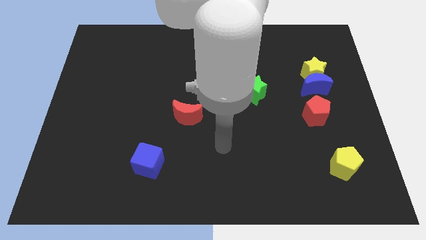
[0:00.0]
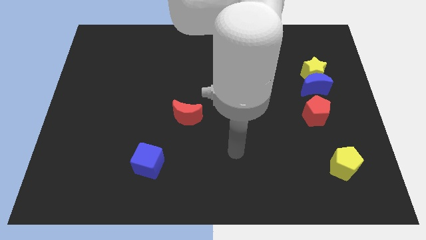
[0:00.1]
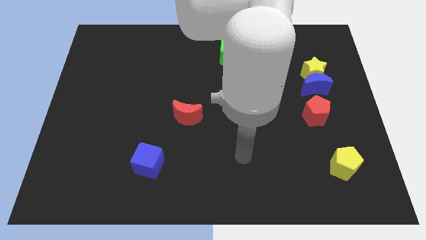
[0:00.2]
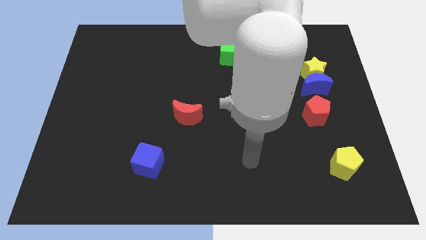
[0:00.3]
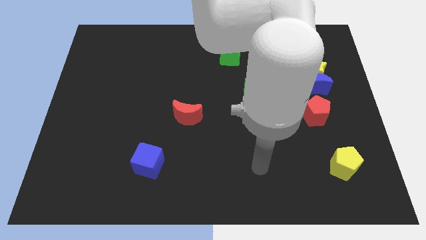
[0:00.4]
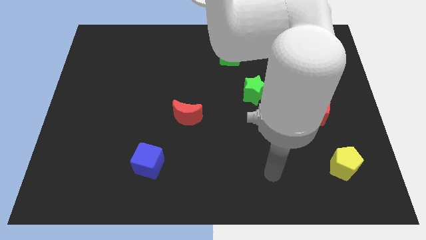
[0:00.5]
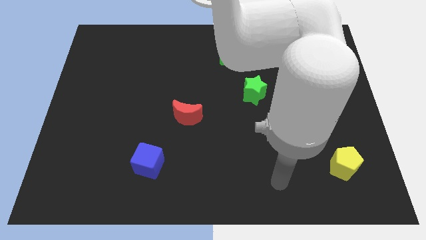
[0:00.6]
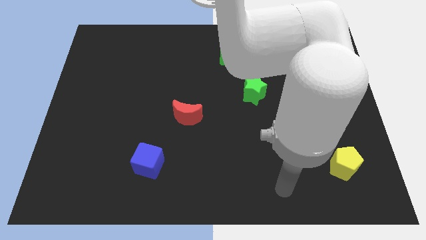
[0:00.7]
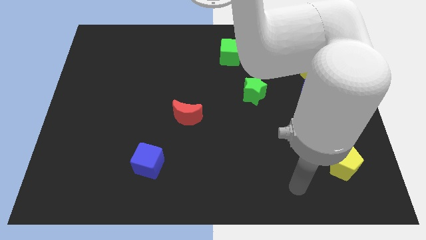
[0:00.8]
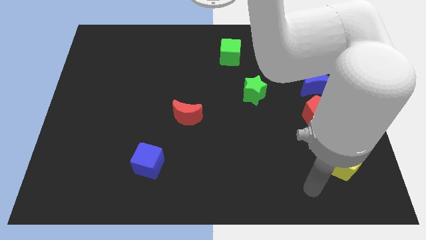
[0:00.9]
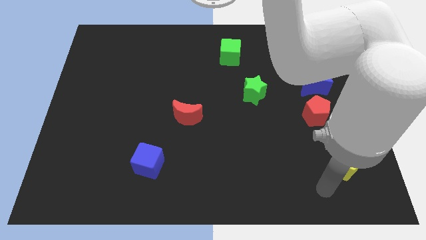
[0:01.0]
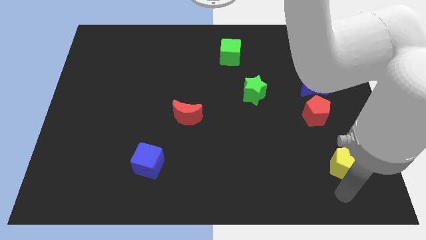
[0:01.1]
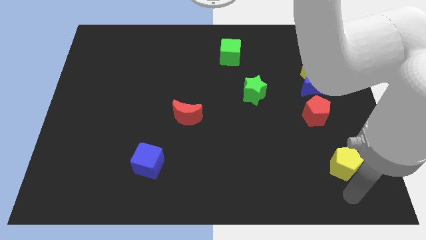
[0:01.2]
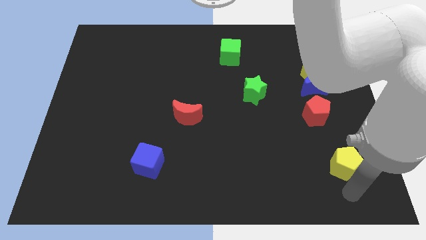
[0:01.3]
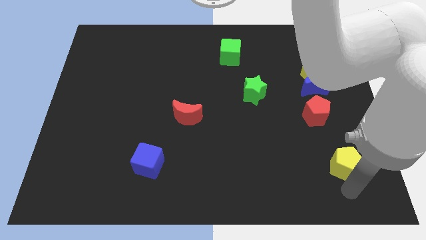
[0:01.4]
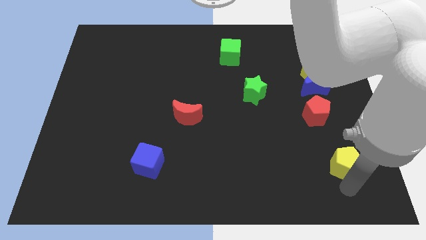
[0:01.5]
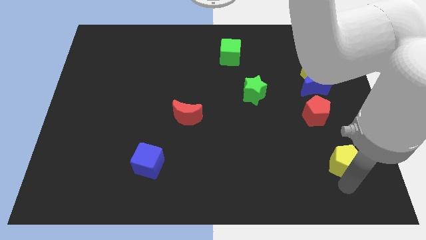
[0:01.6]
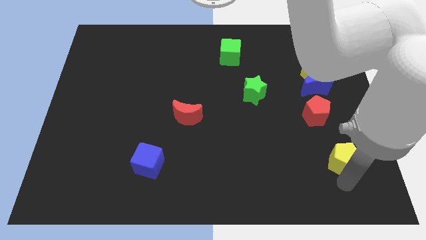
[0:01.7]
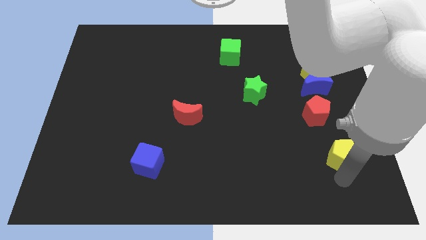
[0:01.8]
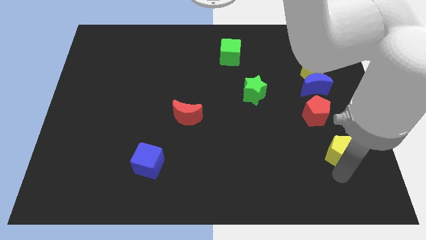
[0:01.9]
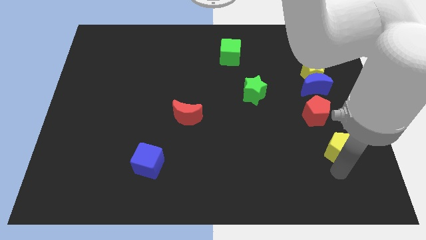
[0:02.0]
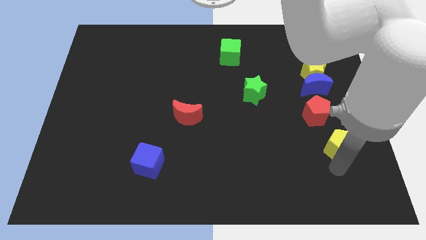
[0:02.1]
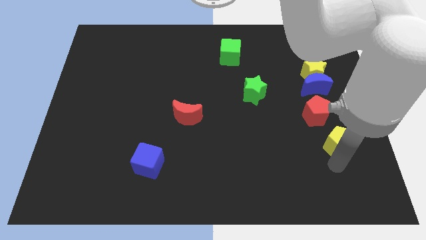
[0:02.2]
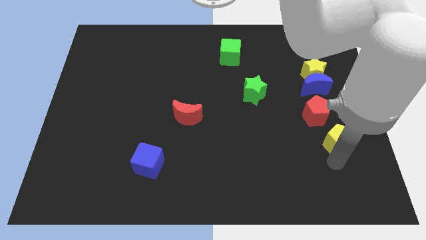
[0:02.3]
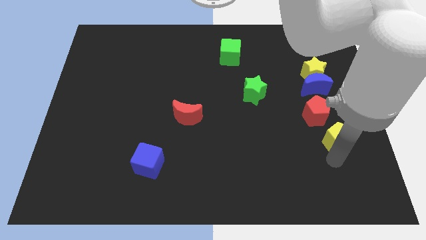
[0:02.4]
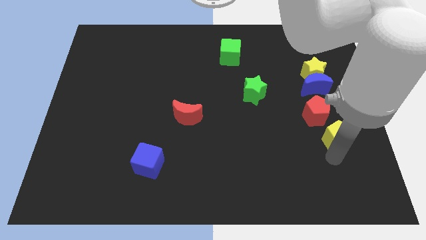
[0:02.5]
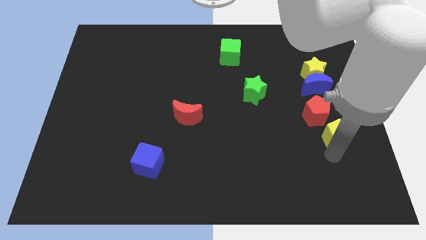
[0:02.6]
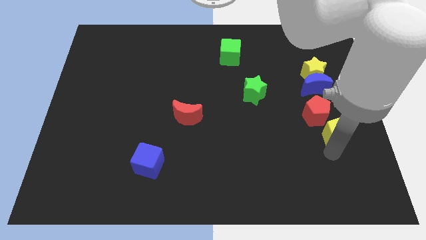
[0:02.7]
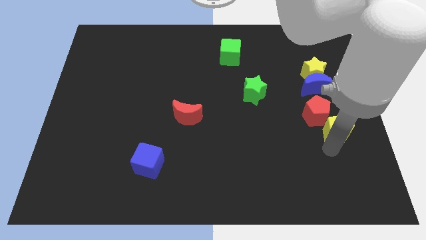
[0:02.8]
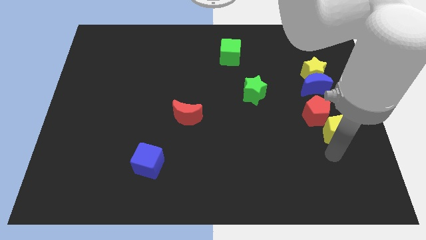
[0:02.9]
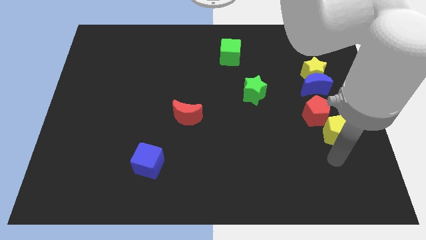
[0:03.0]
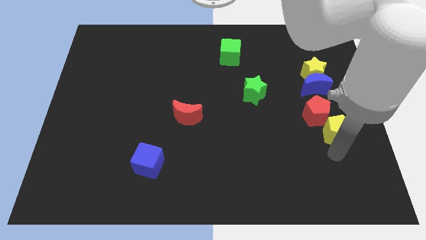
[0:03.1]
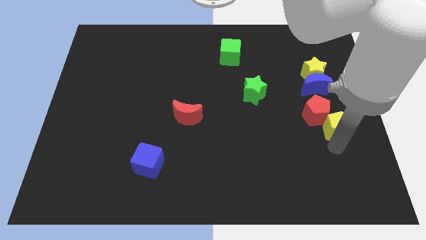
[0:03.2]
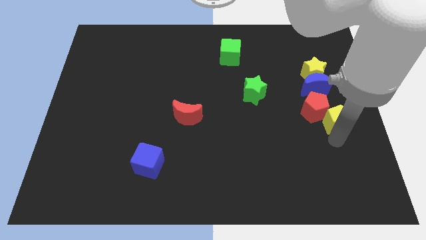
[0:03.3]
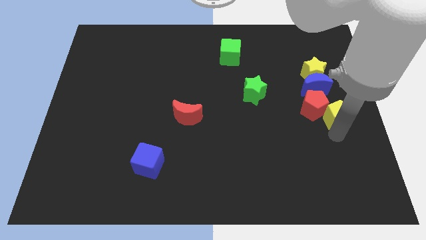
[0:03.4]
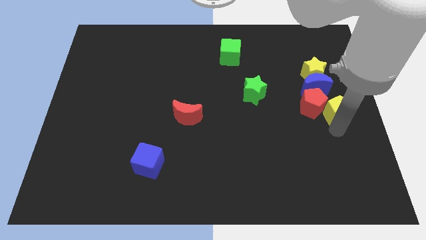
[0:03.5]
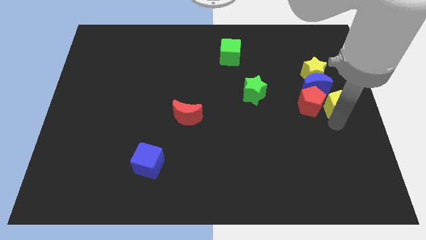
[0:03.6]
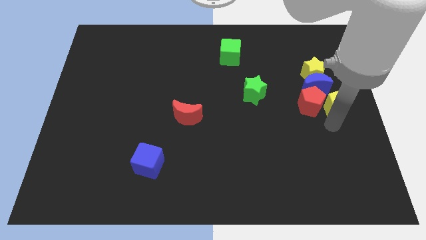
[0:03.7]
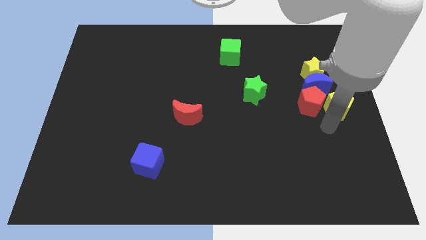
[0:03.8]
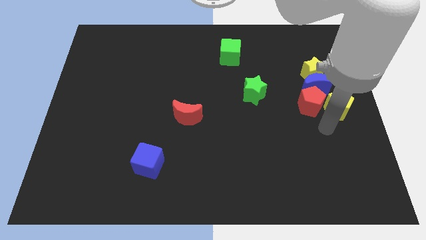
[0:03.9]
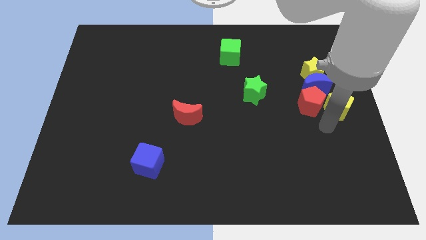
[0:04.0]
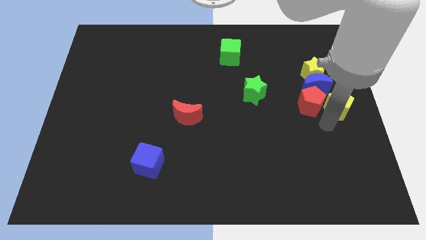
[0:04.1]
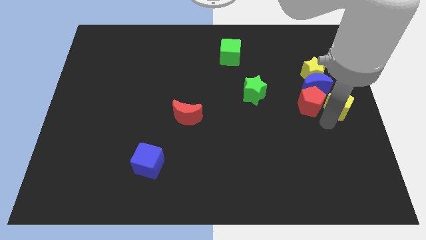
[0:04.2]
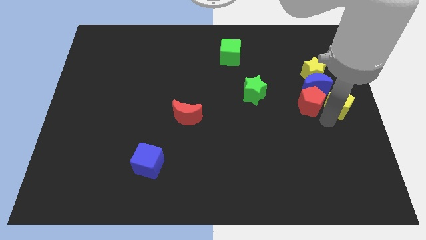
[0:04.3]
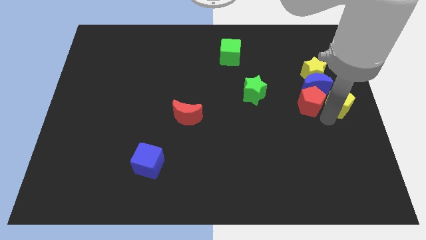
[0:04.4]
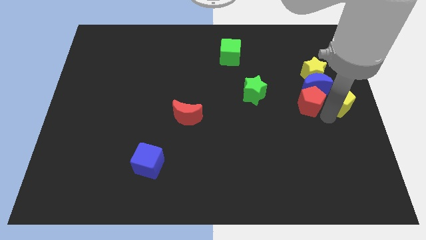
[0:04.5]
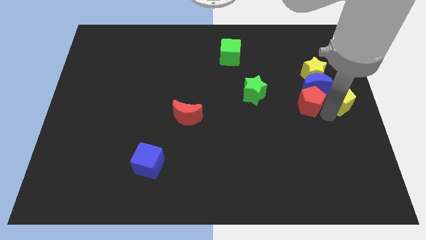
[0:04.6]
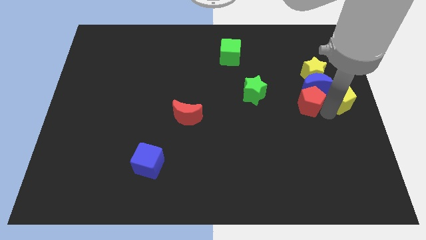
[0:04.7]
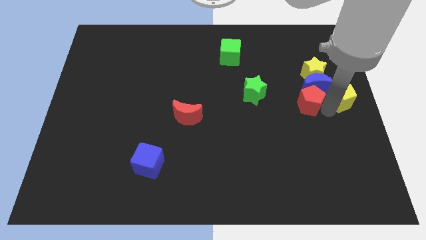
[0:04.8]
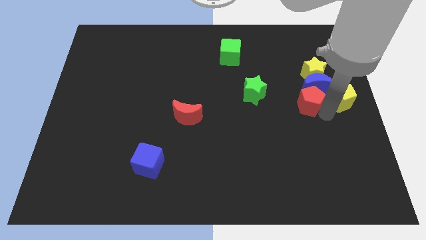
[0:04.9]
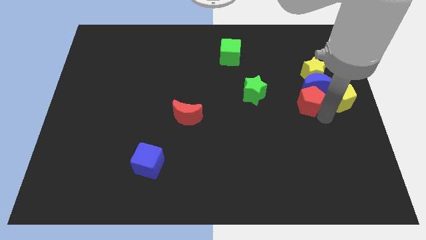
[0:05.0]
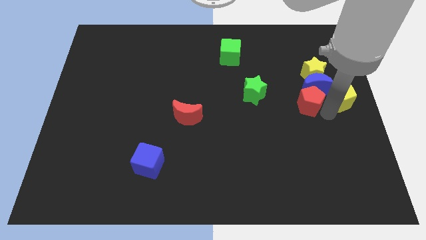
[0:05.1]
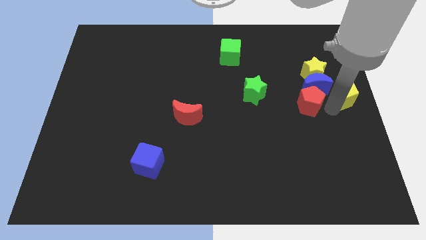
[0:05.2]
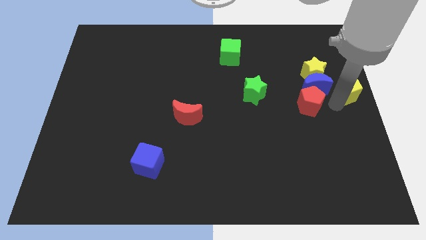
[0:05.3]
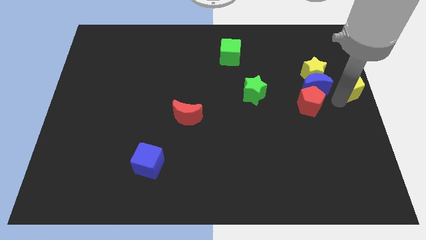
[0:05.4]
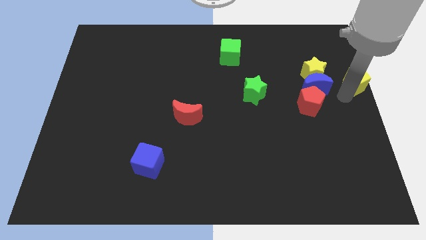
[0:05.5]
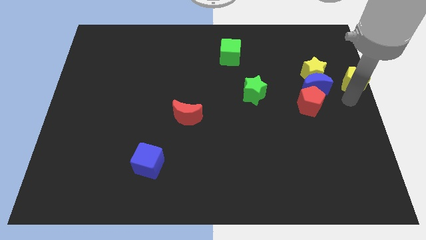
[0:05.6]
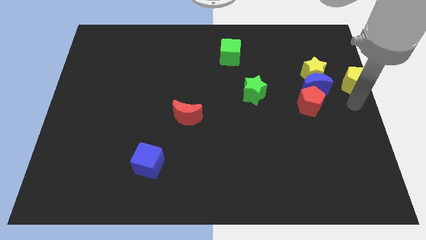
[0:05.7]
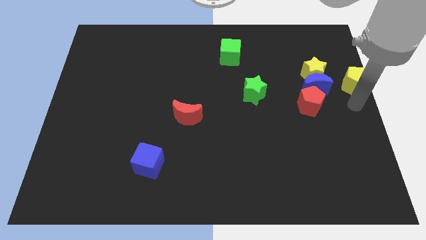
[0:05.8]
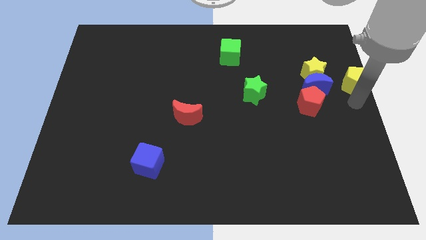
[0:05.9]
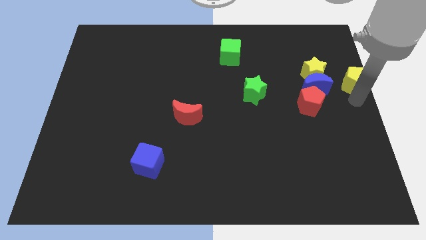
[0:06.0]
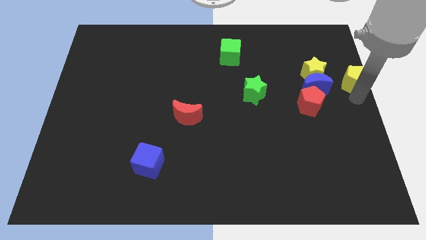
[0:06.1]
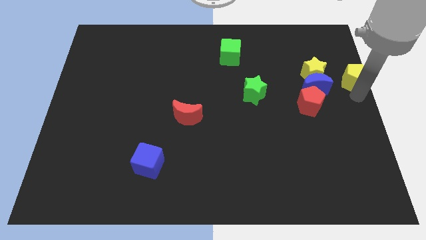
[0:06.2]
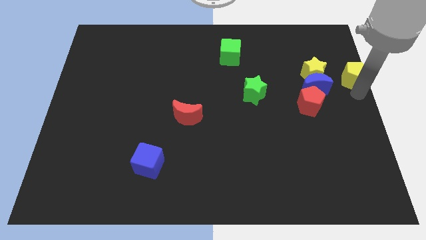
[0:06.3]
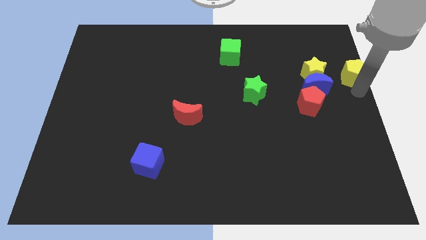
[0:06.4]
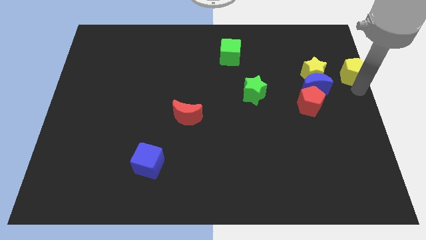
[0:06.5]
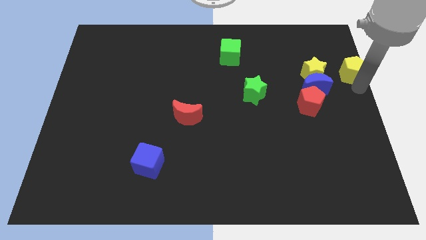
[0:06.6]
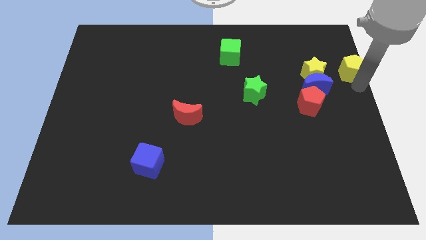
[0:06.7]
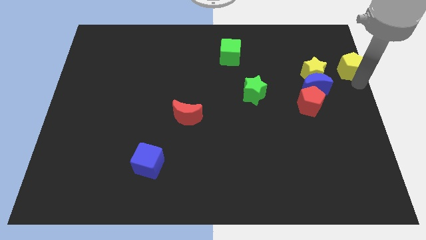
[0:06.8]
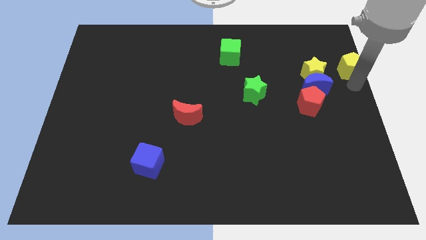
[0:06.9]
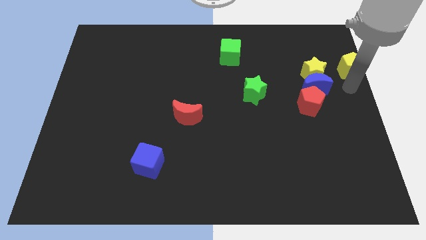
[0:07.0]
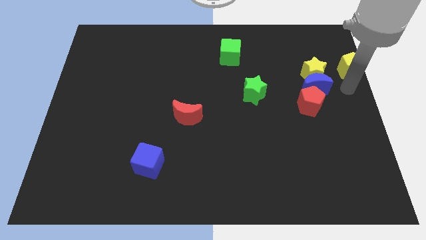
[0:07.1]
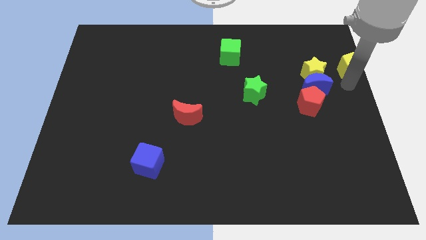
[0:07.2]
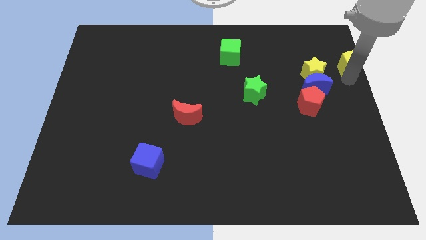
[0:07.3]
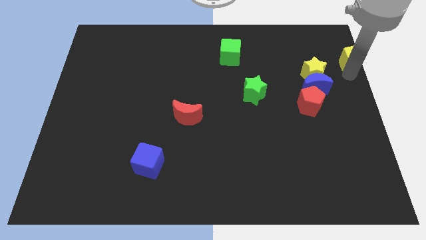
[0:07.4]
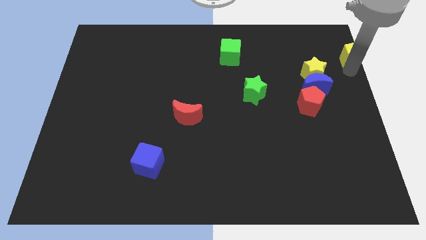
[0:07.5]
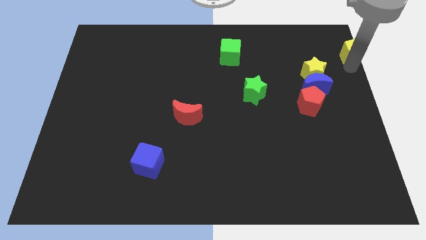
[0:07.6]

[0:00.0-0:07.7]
move the yellow pentagon to the top right
